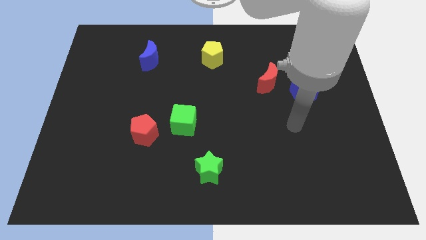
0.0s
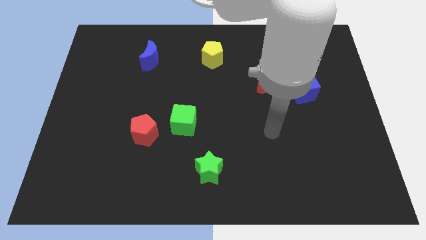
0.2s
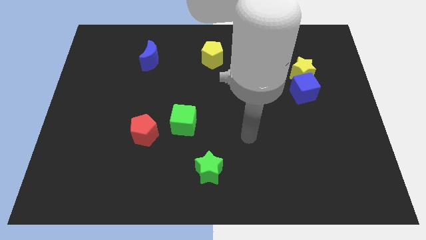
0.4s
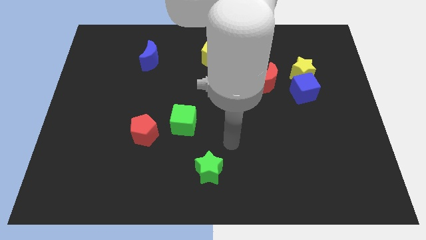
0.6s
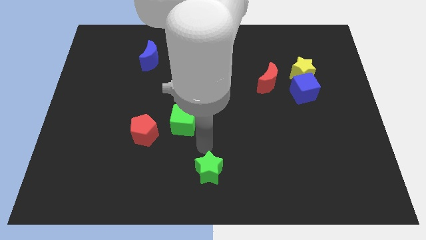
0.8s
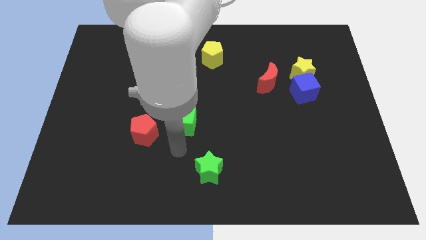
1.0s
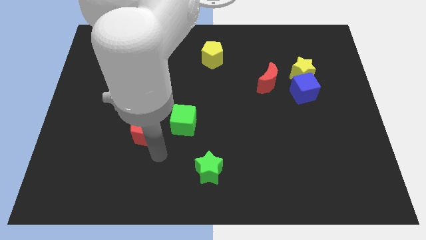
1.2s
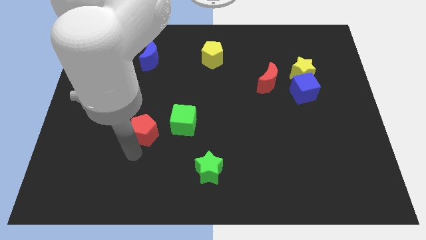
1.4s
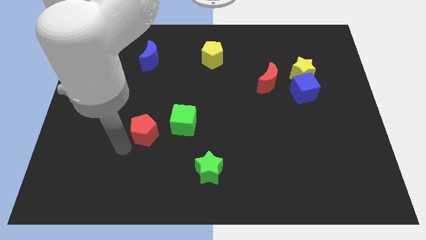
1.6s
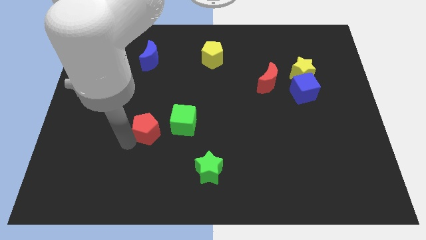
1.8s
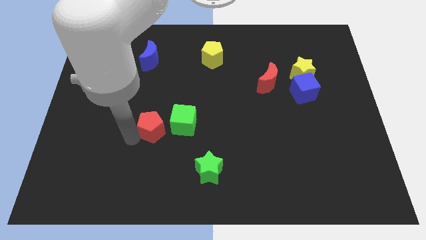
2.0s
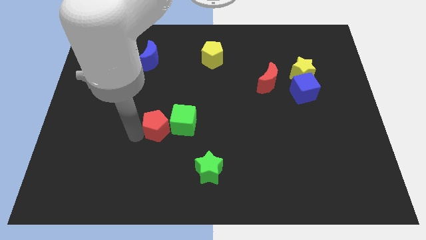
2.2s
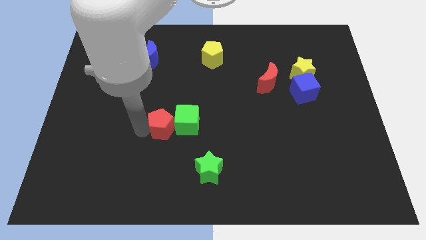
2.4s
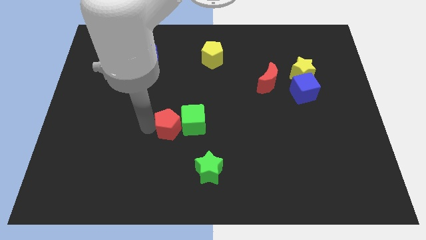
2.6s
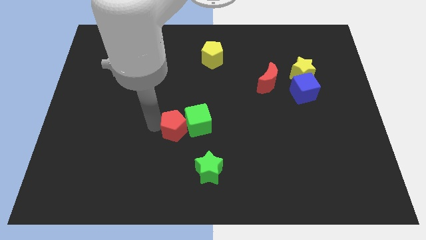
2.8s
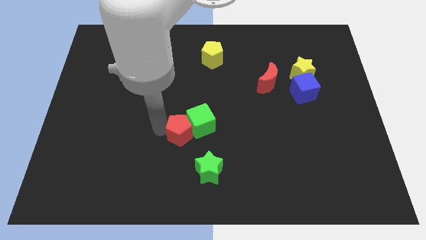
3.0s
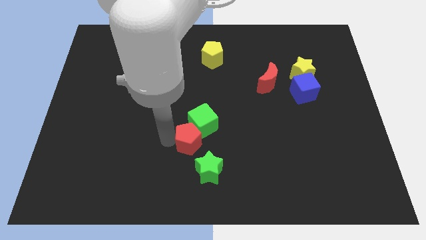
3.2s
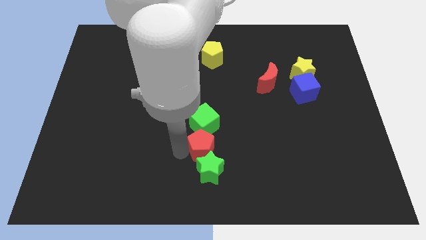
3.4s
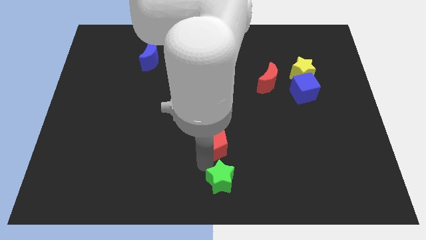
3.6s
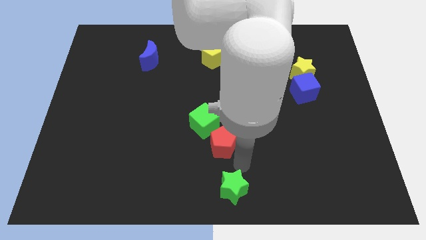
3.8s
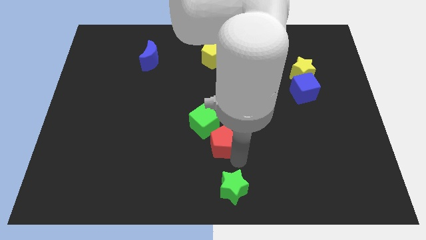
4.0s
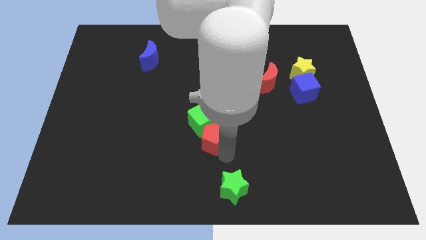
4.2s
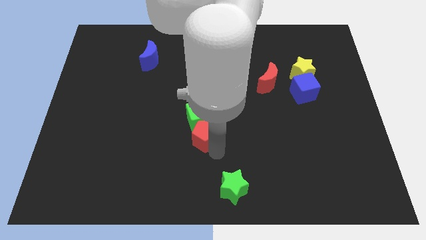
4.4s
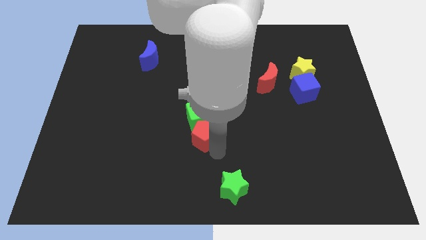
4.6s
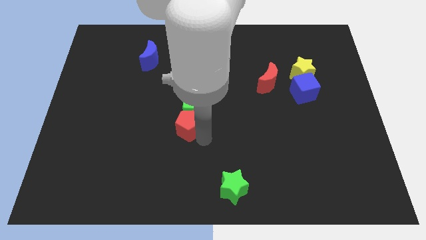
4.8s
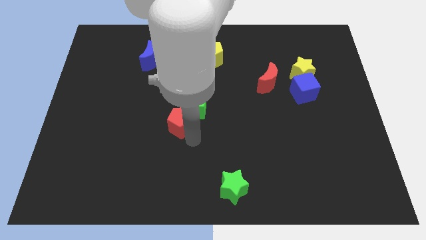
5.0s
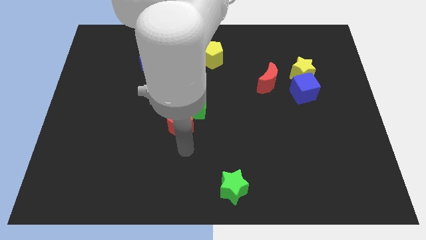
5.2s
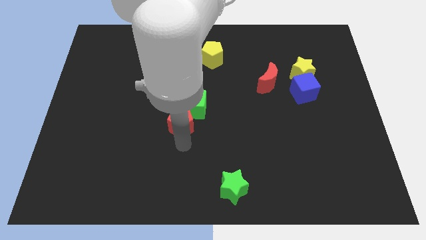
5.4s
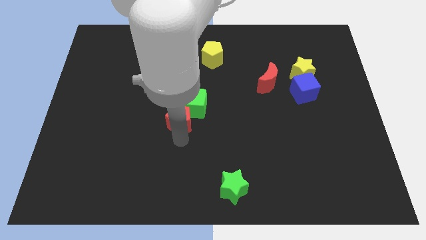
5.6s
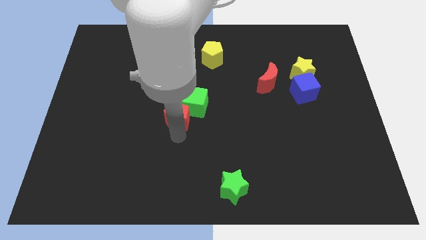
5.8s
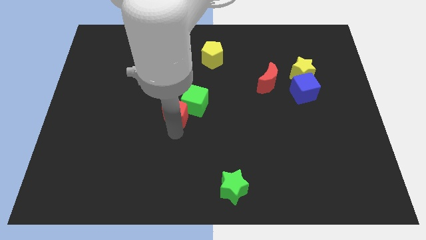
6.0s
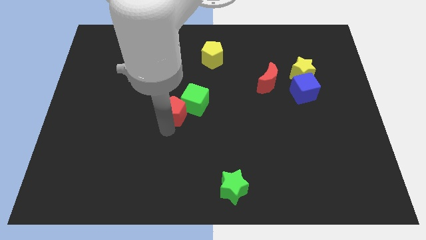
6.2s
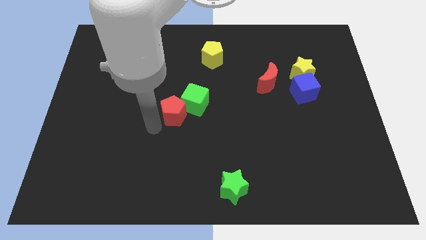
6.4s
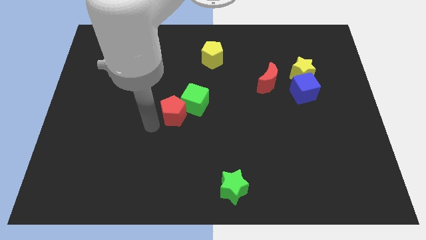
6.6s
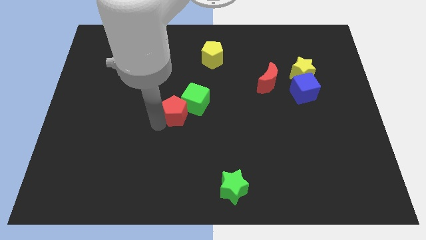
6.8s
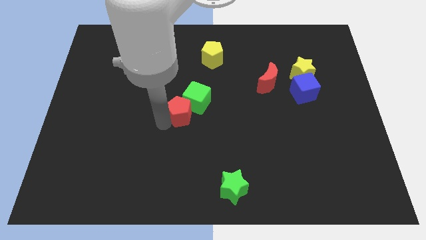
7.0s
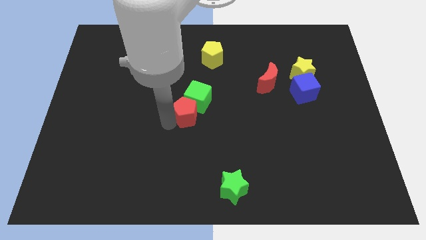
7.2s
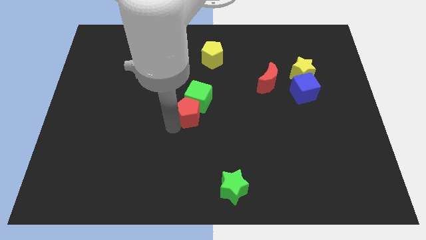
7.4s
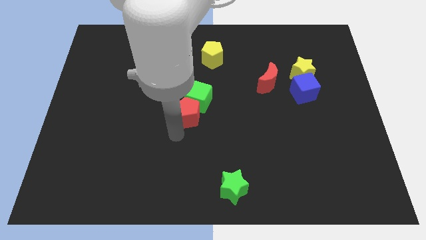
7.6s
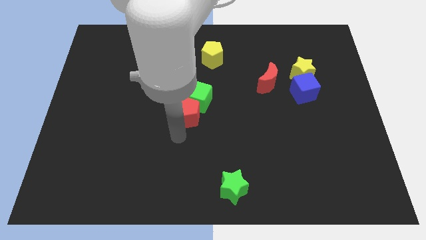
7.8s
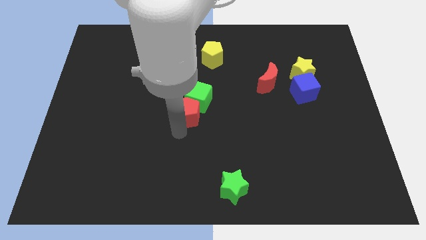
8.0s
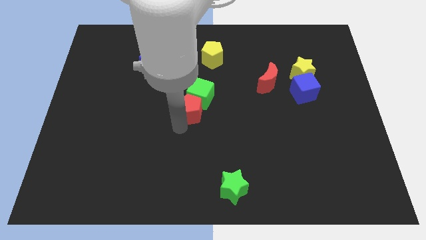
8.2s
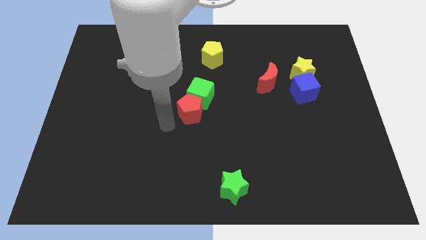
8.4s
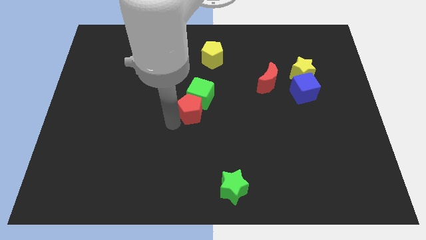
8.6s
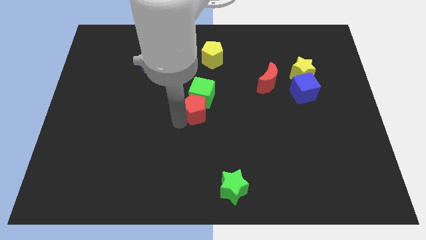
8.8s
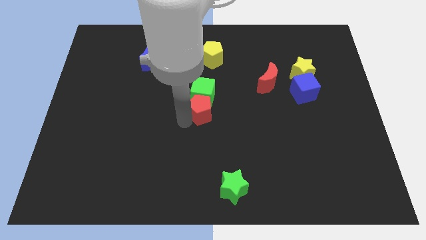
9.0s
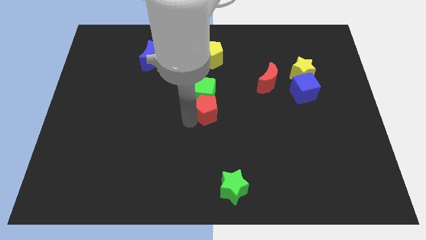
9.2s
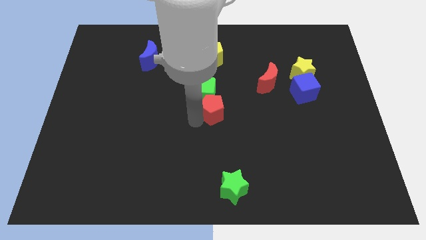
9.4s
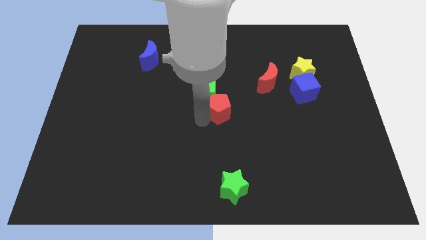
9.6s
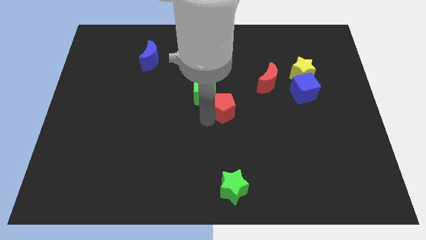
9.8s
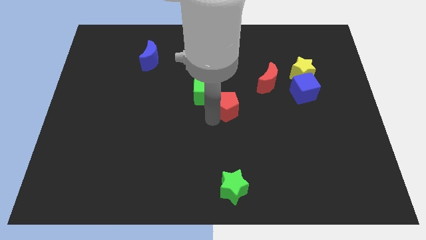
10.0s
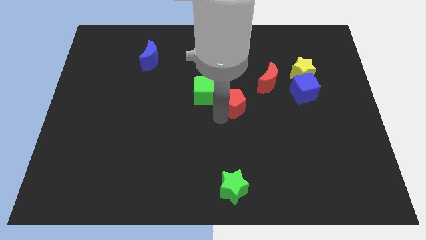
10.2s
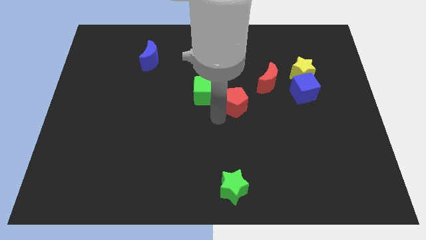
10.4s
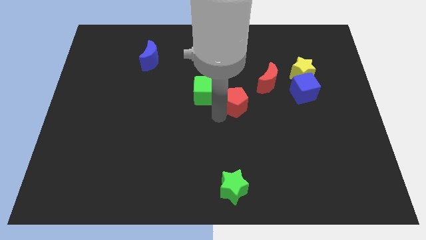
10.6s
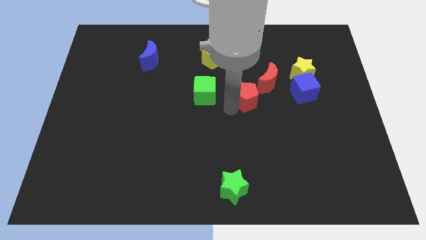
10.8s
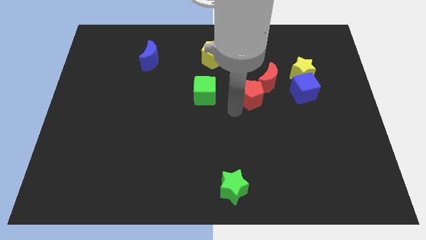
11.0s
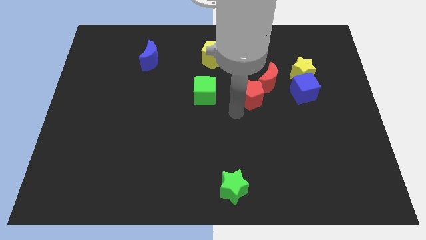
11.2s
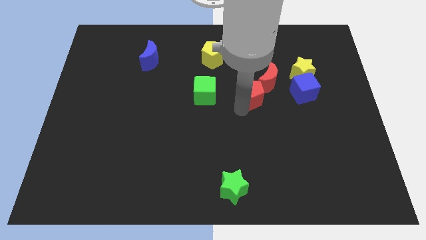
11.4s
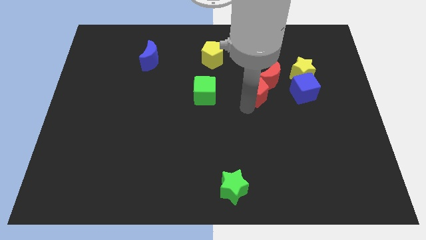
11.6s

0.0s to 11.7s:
slide the red pentagon close to the red moon

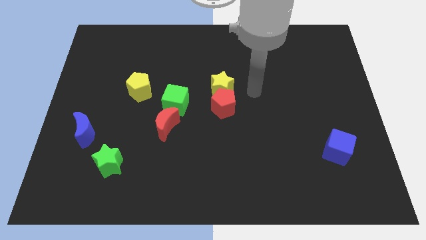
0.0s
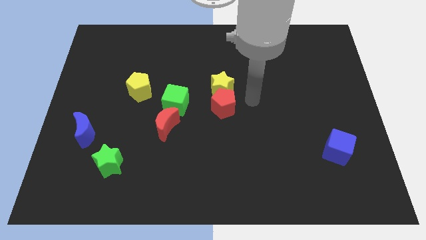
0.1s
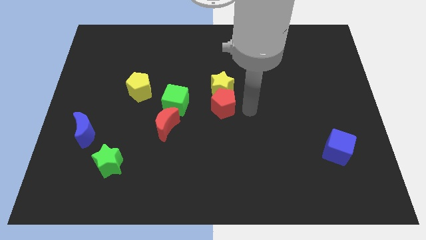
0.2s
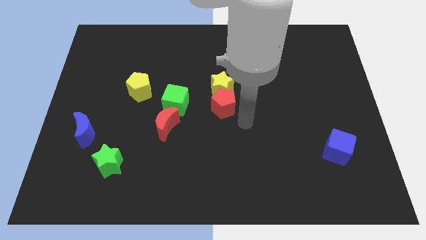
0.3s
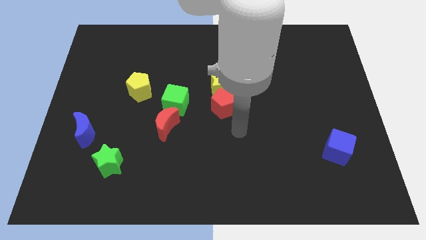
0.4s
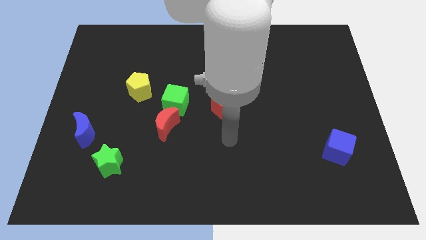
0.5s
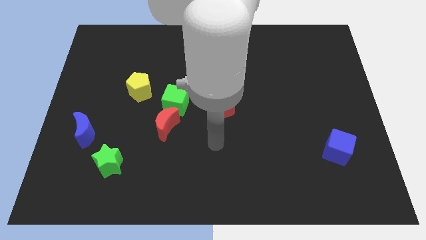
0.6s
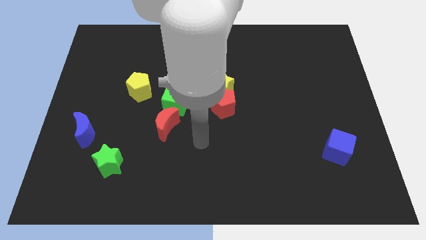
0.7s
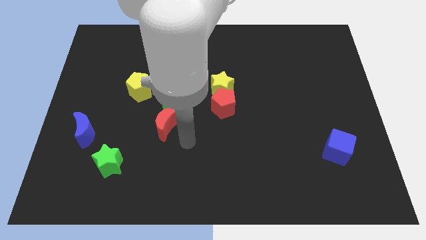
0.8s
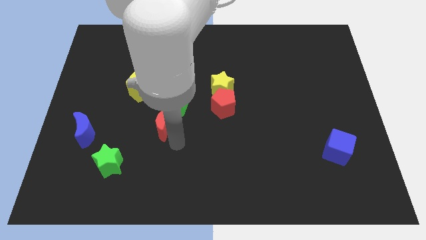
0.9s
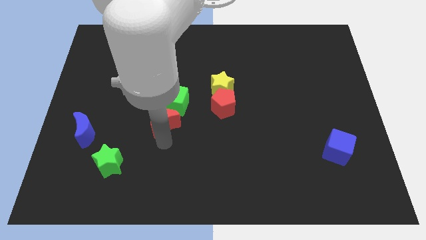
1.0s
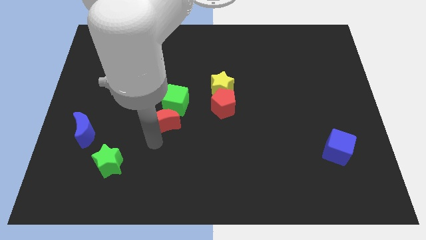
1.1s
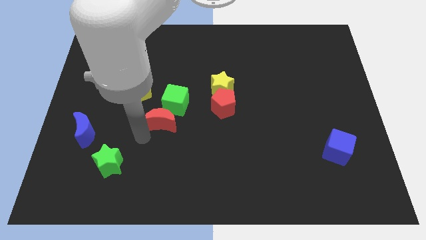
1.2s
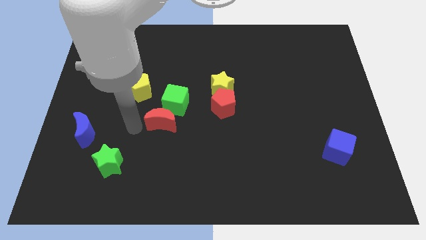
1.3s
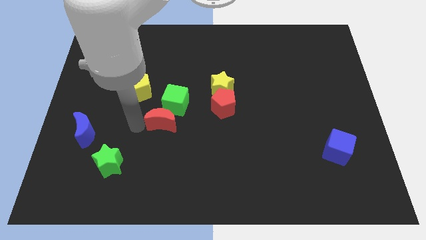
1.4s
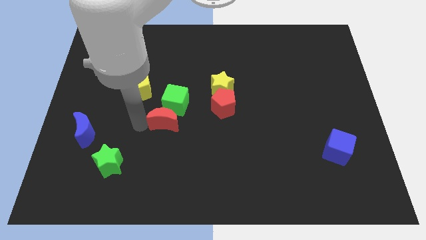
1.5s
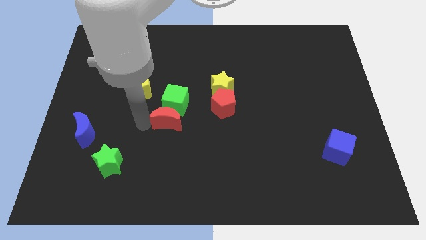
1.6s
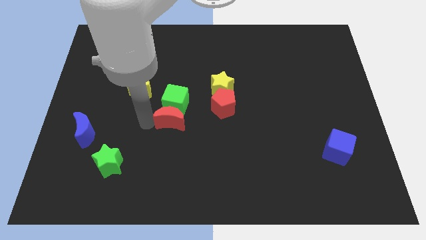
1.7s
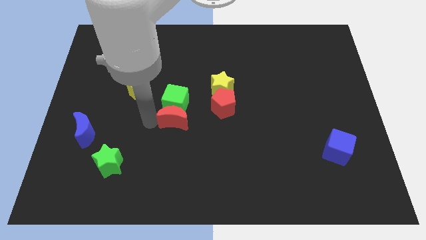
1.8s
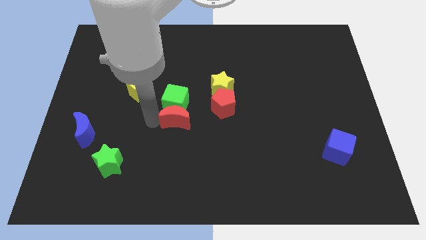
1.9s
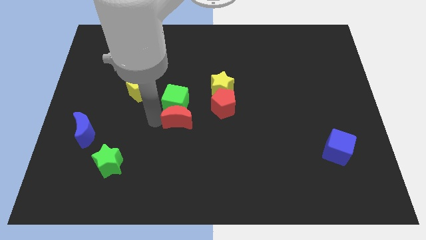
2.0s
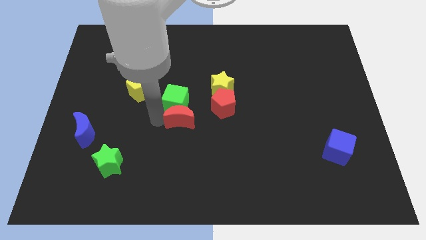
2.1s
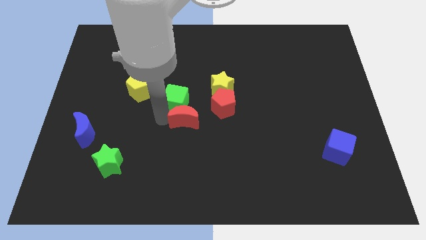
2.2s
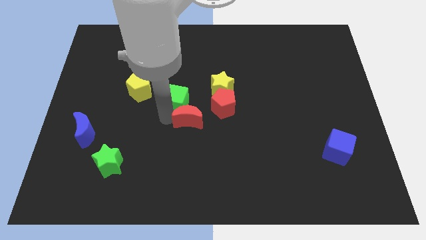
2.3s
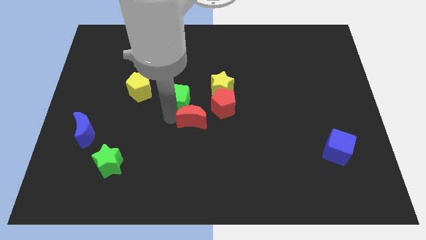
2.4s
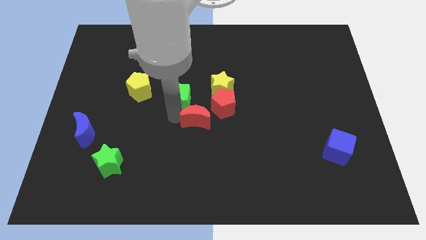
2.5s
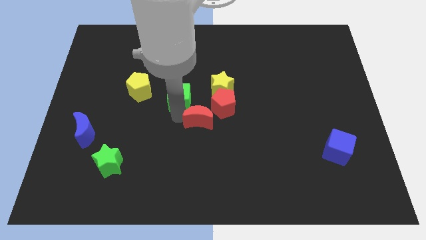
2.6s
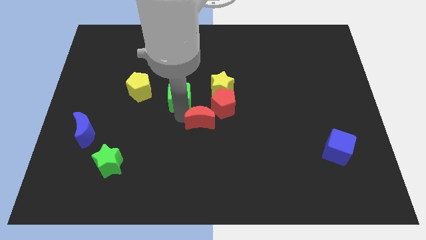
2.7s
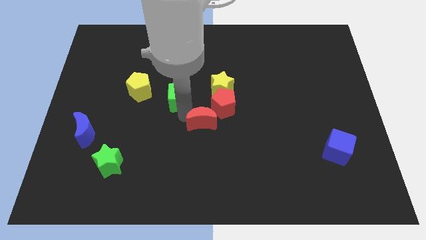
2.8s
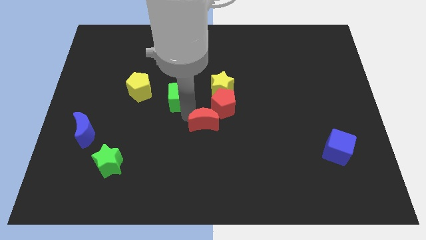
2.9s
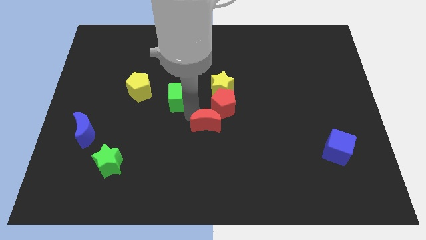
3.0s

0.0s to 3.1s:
move the red moon towards the red pentagon
